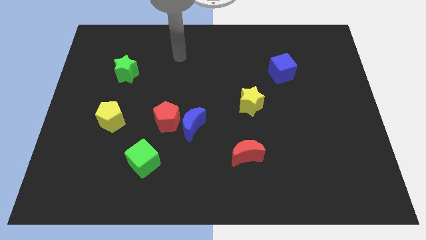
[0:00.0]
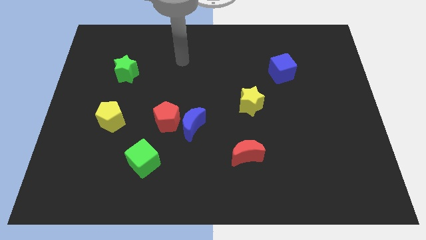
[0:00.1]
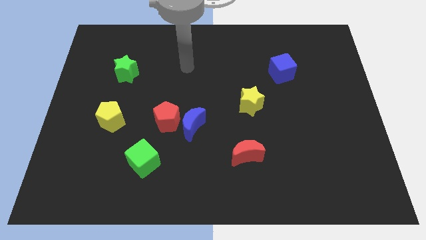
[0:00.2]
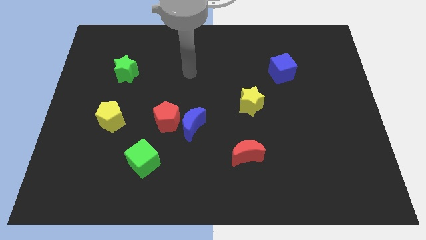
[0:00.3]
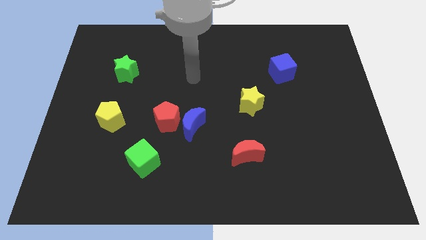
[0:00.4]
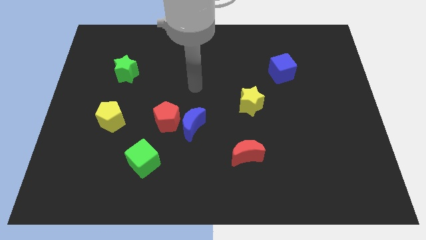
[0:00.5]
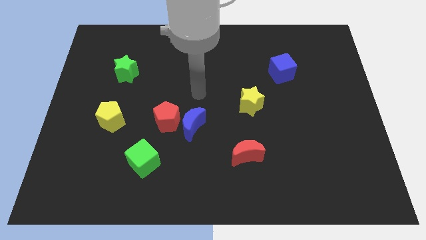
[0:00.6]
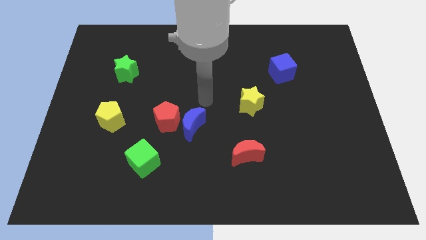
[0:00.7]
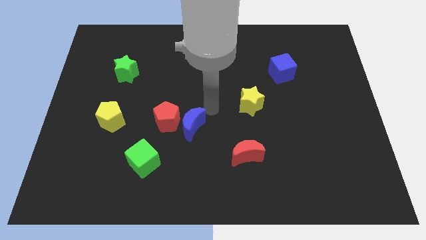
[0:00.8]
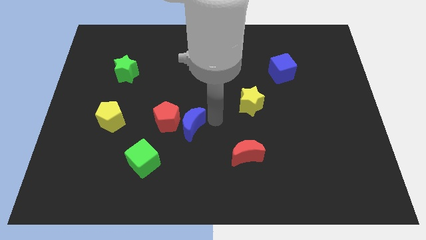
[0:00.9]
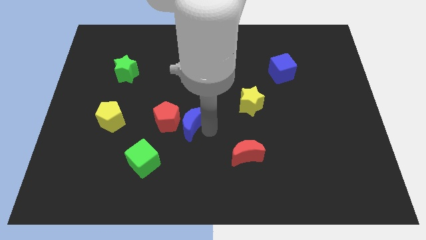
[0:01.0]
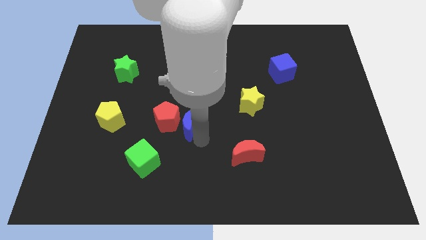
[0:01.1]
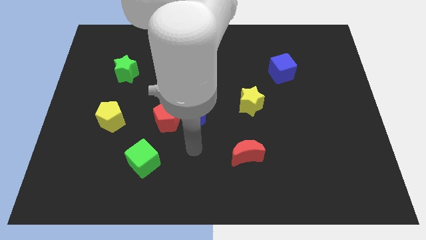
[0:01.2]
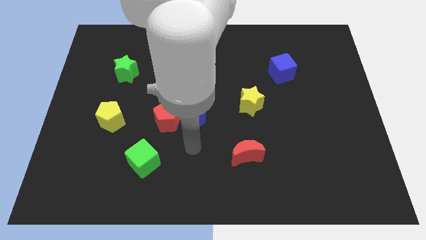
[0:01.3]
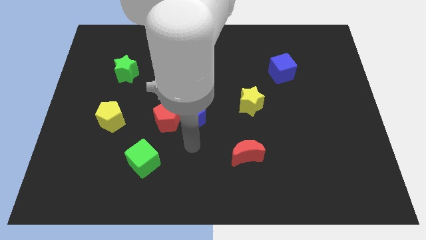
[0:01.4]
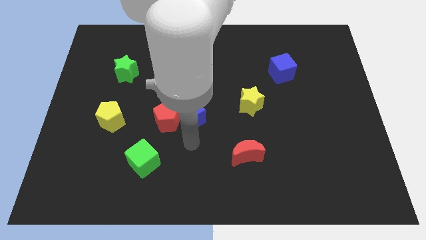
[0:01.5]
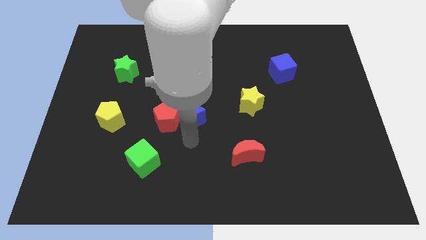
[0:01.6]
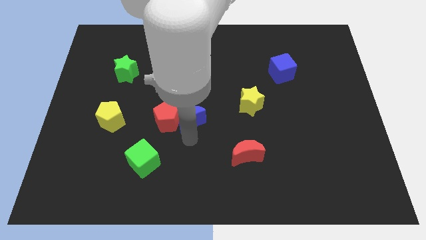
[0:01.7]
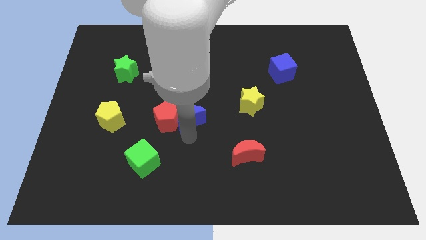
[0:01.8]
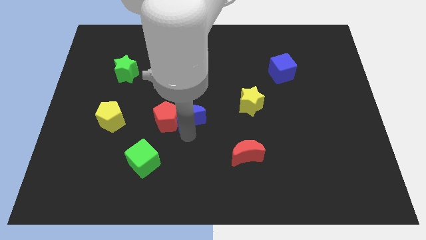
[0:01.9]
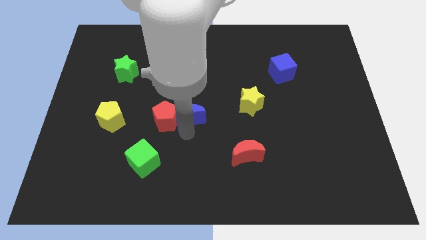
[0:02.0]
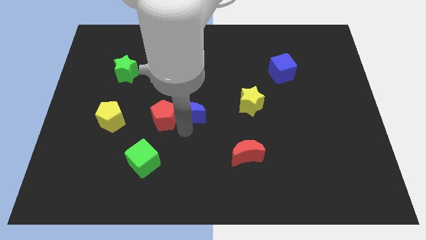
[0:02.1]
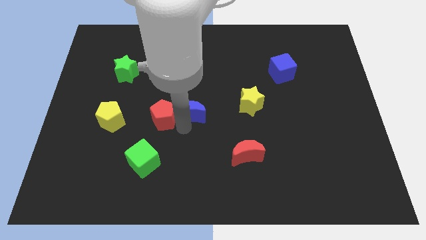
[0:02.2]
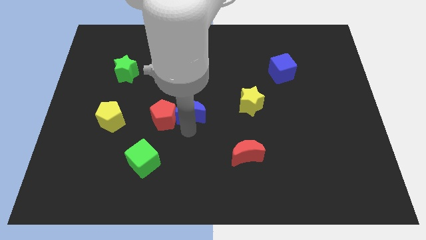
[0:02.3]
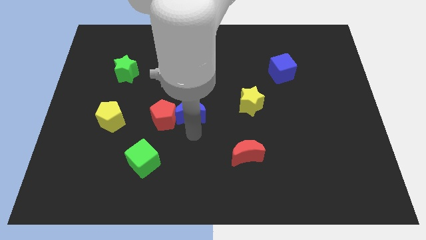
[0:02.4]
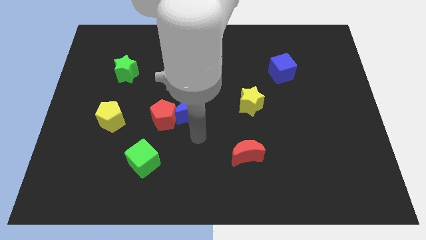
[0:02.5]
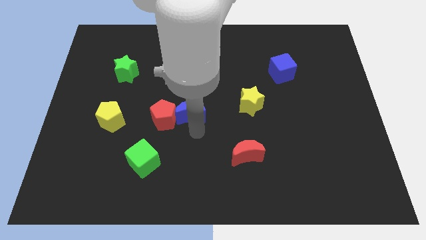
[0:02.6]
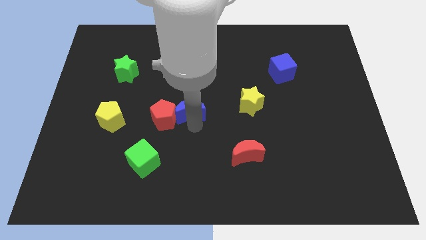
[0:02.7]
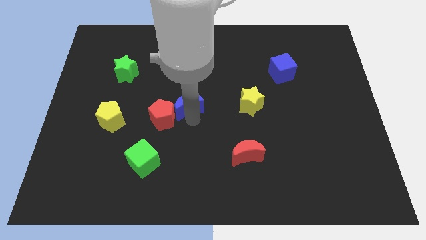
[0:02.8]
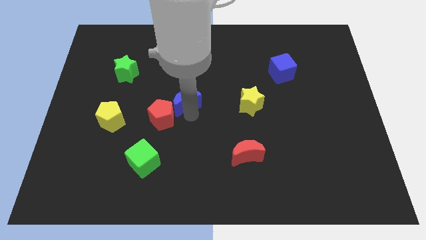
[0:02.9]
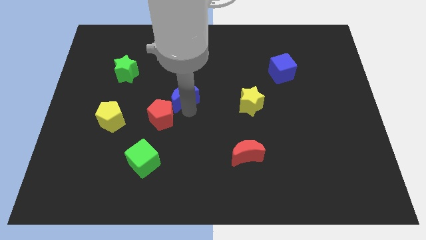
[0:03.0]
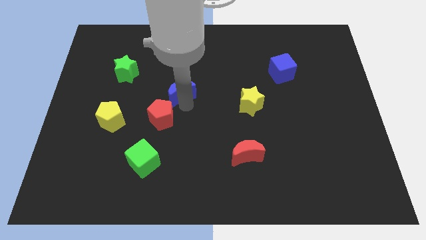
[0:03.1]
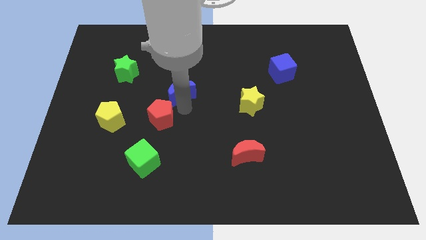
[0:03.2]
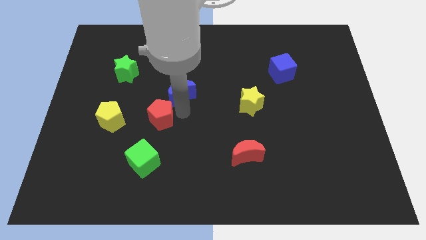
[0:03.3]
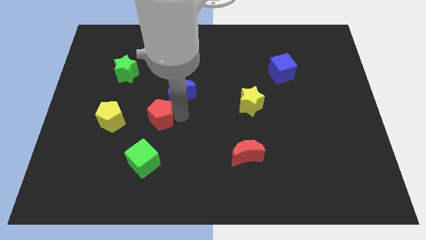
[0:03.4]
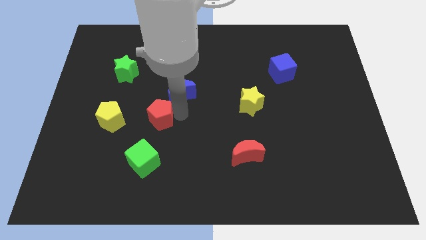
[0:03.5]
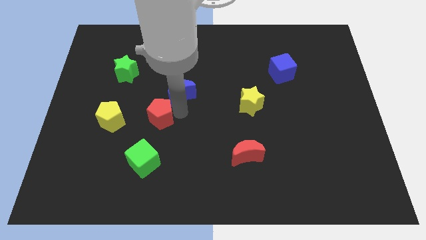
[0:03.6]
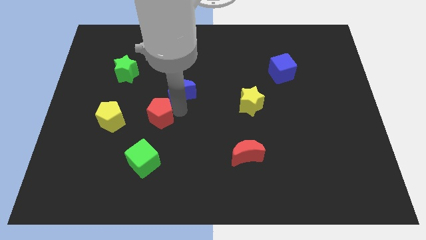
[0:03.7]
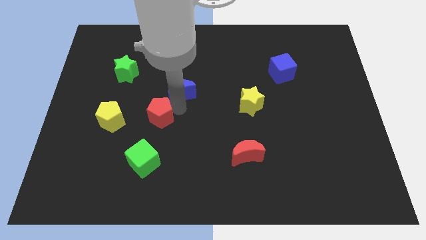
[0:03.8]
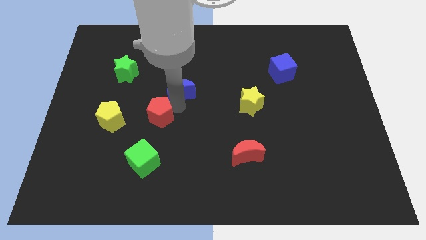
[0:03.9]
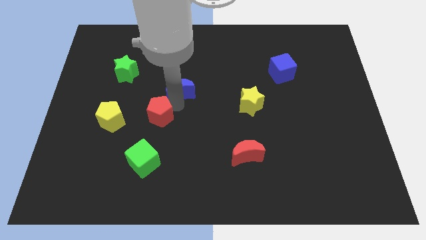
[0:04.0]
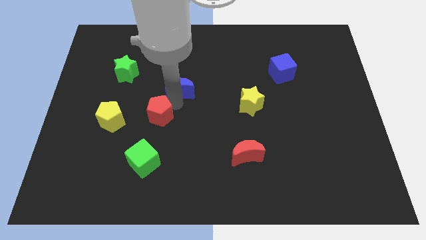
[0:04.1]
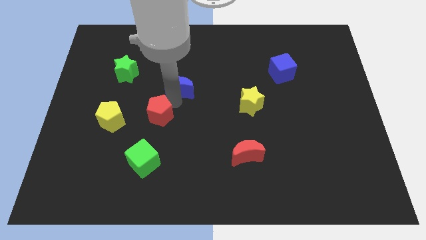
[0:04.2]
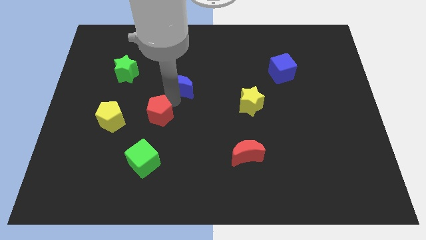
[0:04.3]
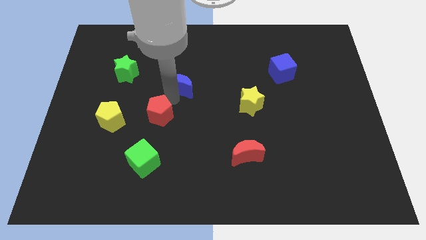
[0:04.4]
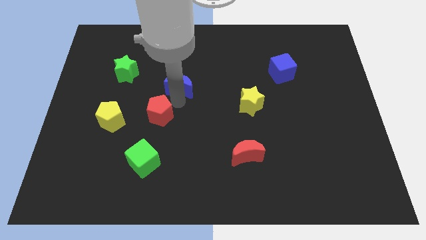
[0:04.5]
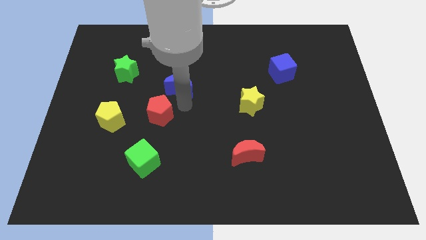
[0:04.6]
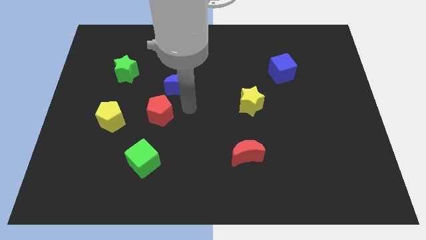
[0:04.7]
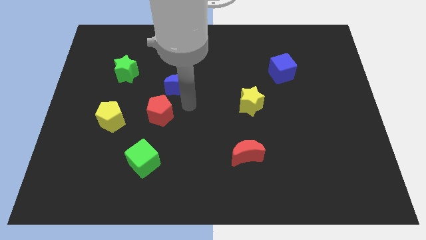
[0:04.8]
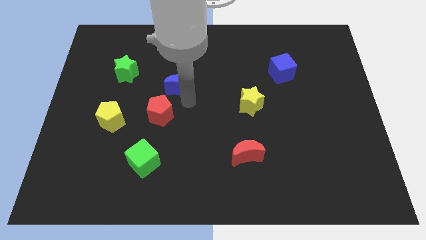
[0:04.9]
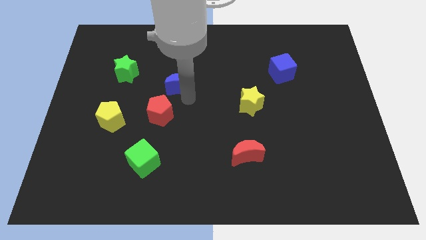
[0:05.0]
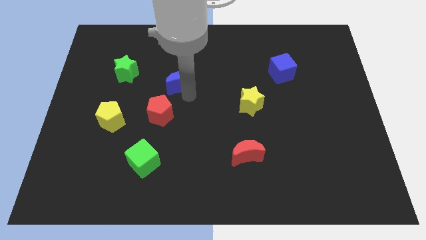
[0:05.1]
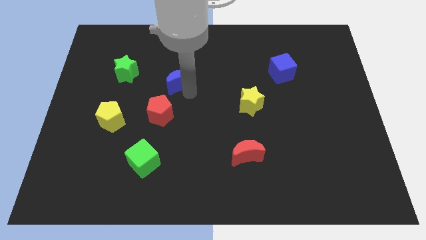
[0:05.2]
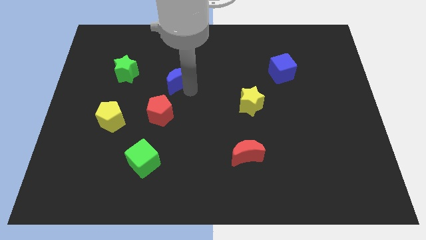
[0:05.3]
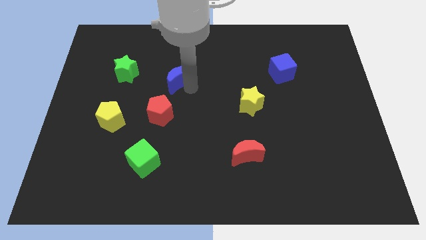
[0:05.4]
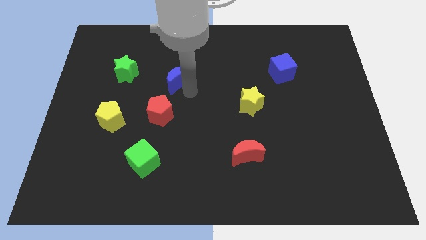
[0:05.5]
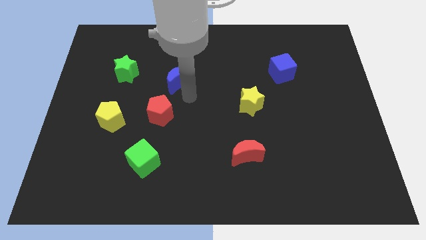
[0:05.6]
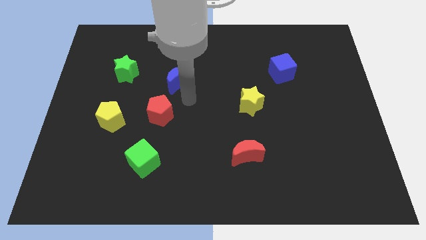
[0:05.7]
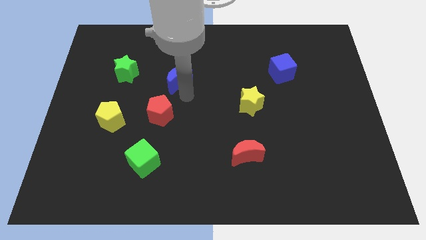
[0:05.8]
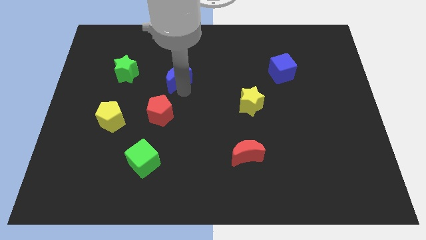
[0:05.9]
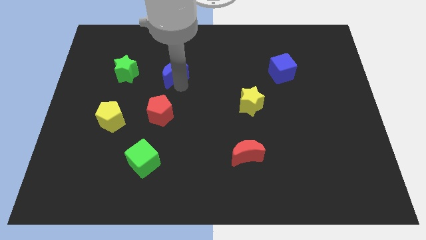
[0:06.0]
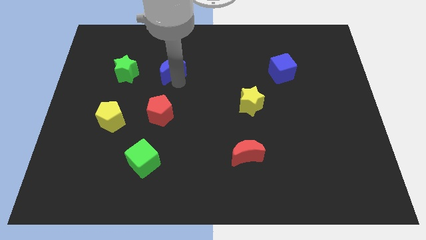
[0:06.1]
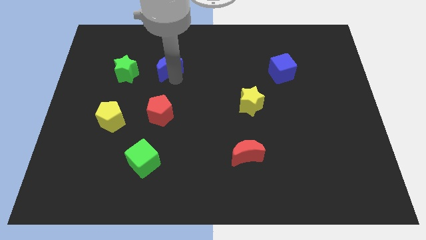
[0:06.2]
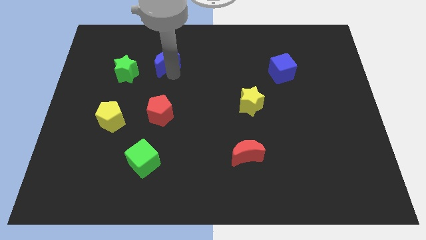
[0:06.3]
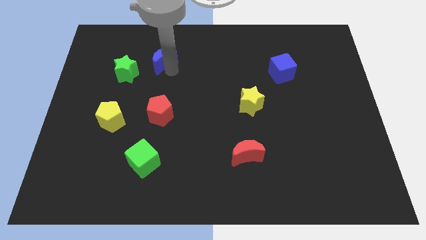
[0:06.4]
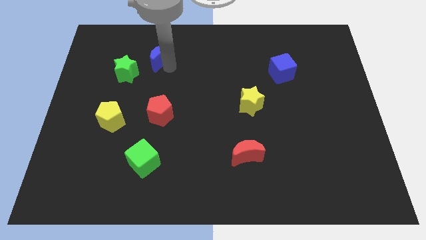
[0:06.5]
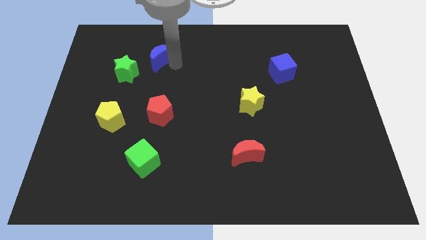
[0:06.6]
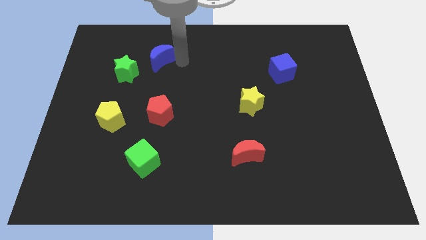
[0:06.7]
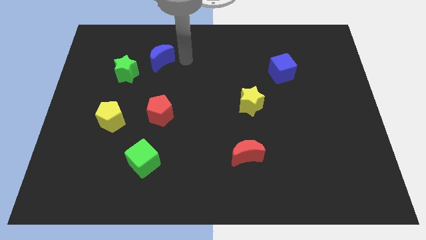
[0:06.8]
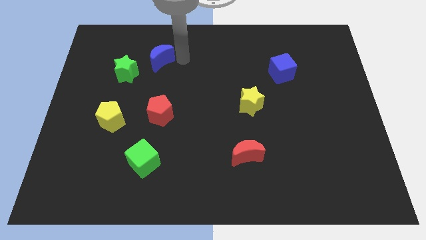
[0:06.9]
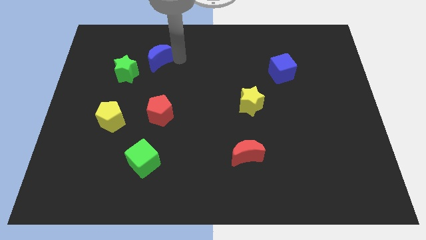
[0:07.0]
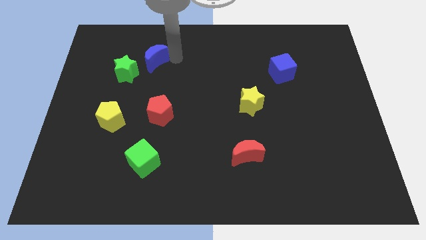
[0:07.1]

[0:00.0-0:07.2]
slide the blue moon upwards and then to the left

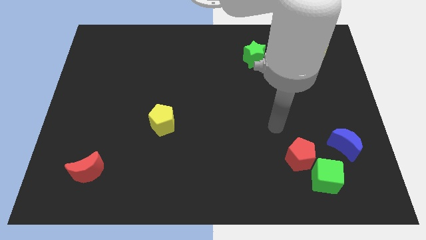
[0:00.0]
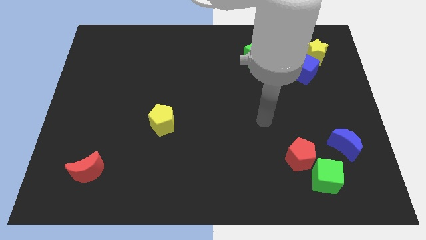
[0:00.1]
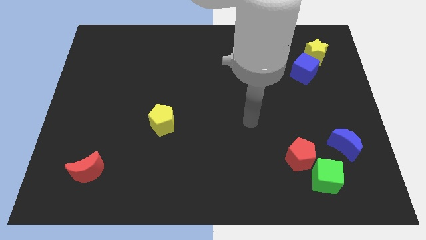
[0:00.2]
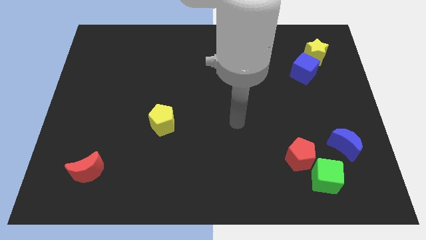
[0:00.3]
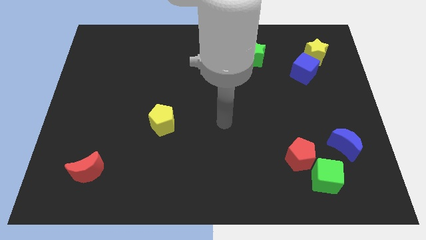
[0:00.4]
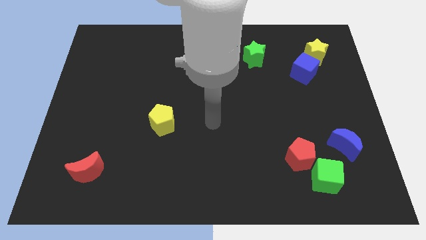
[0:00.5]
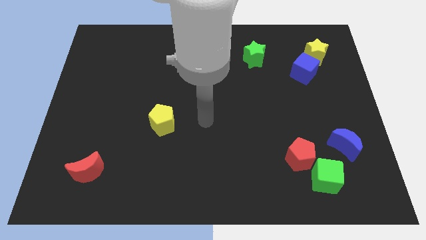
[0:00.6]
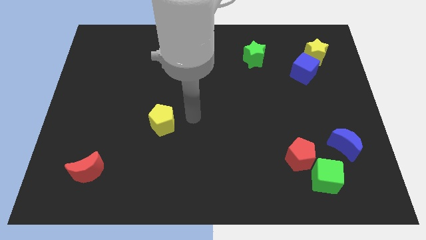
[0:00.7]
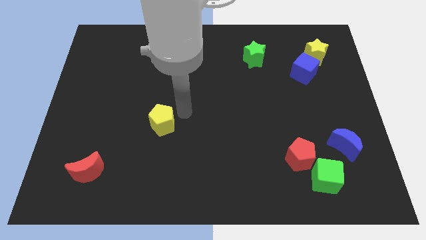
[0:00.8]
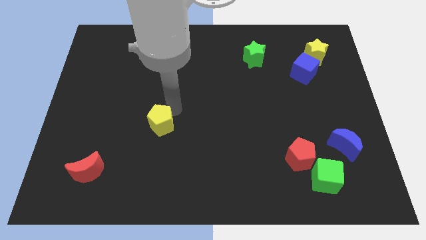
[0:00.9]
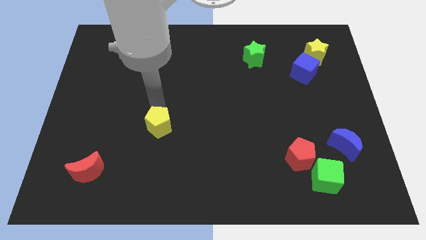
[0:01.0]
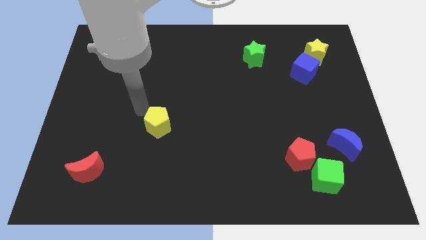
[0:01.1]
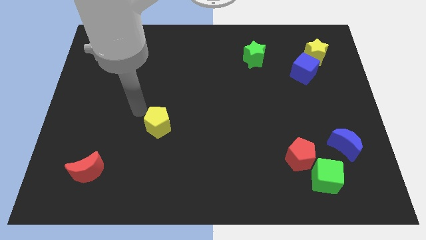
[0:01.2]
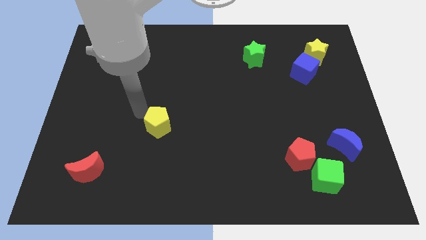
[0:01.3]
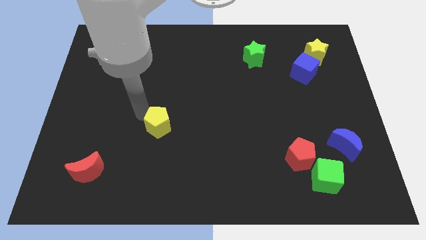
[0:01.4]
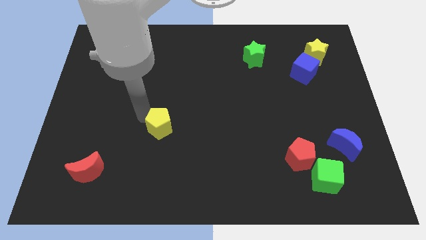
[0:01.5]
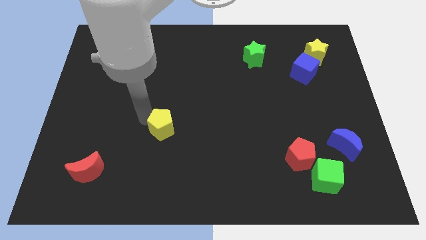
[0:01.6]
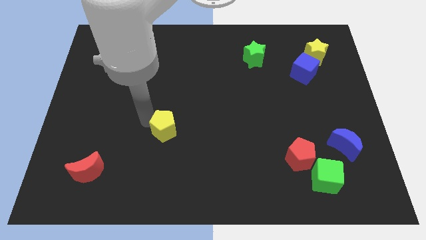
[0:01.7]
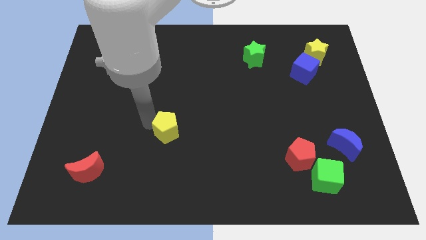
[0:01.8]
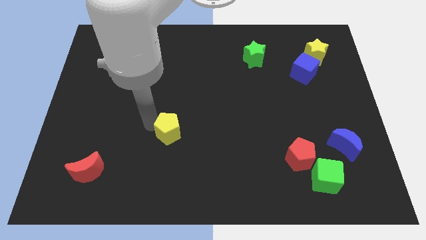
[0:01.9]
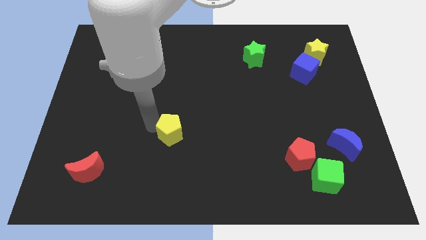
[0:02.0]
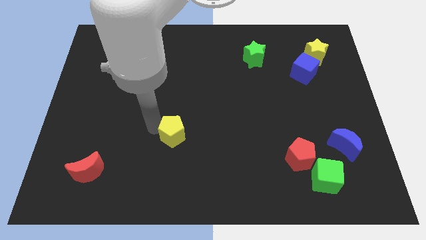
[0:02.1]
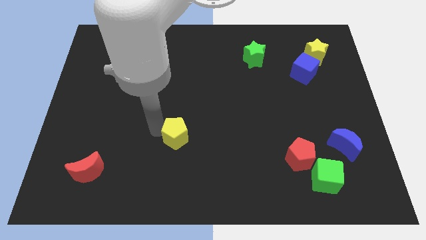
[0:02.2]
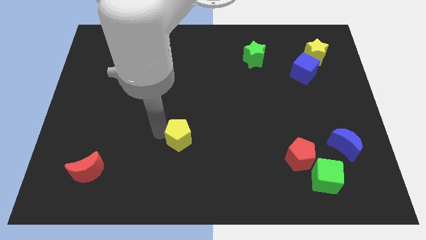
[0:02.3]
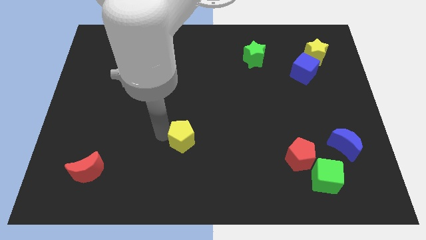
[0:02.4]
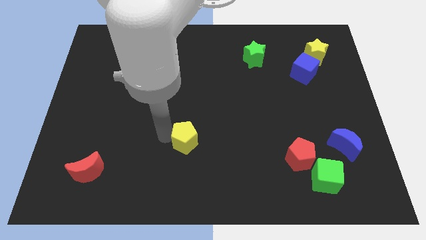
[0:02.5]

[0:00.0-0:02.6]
move the yellow pentagon slightly downwards and then right
